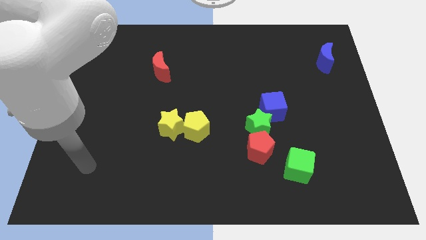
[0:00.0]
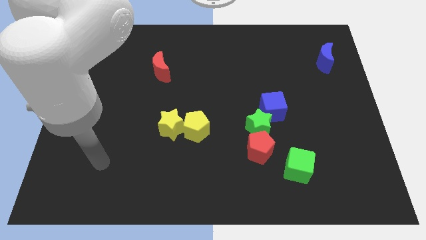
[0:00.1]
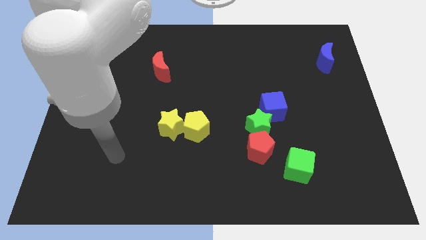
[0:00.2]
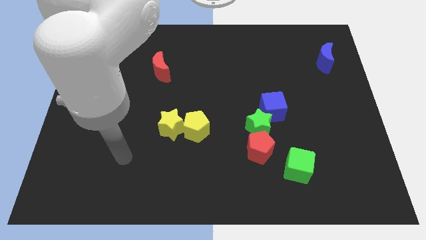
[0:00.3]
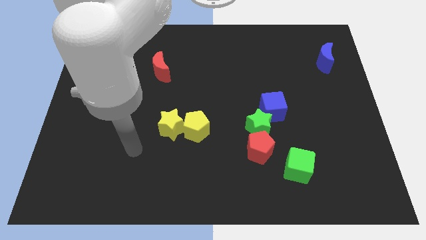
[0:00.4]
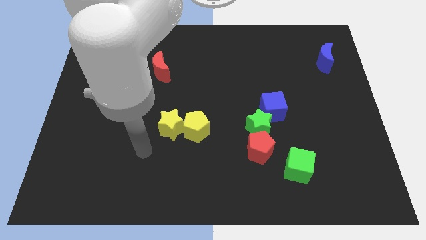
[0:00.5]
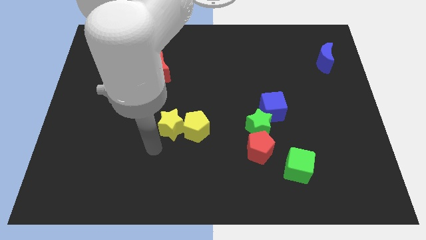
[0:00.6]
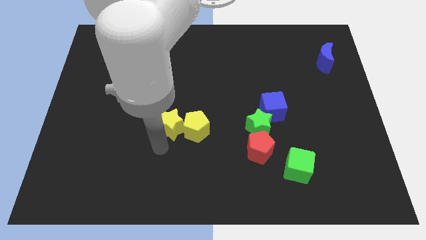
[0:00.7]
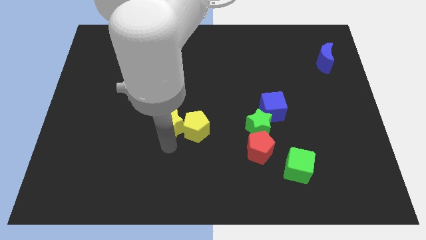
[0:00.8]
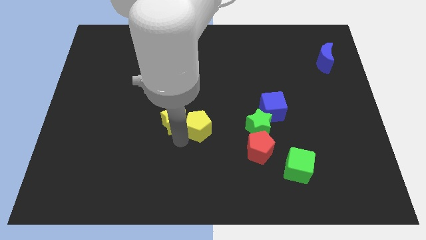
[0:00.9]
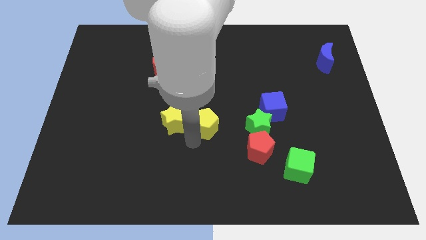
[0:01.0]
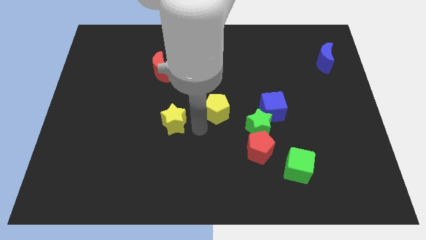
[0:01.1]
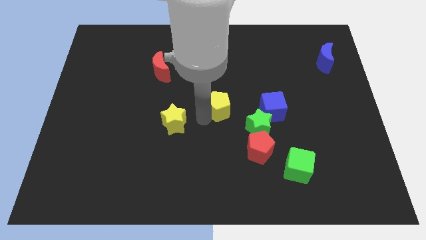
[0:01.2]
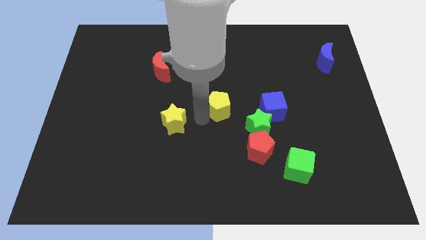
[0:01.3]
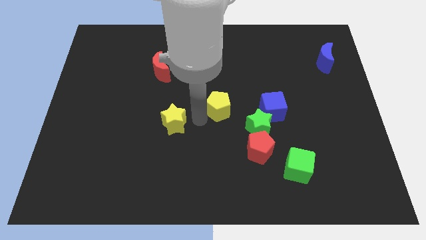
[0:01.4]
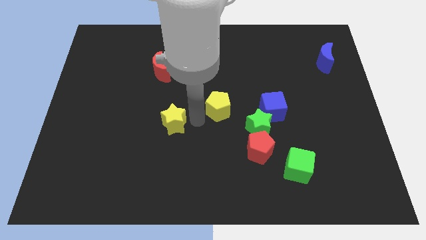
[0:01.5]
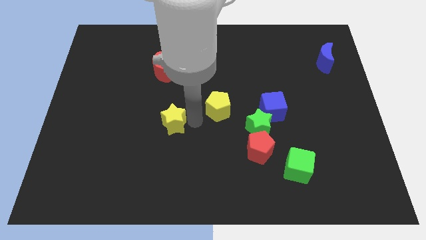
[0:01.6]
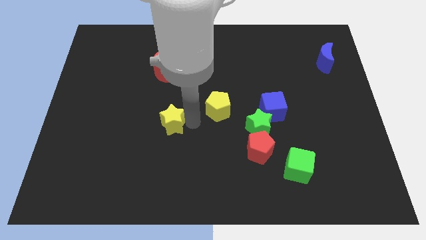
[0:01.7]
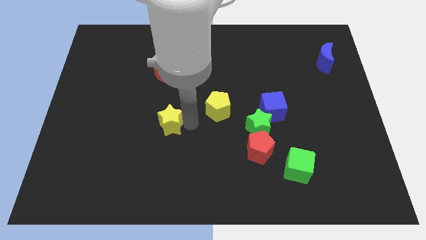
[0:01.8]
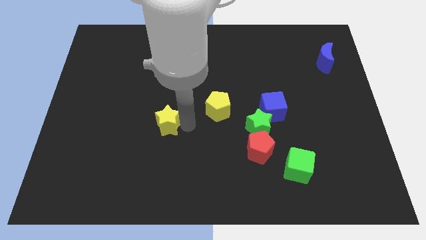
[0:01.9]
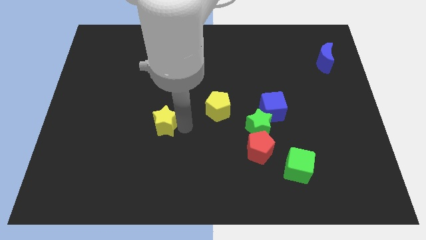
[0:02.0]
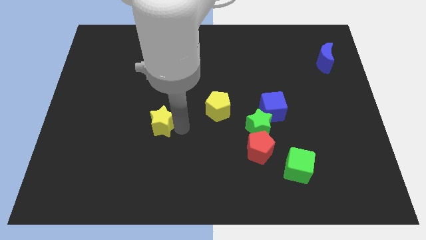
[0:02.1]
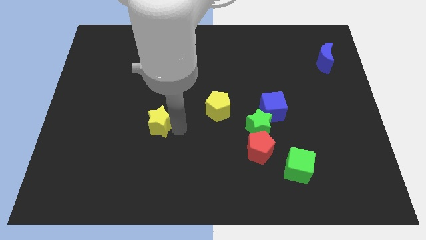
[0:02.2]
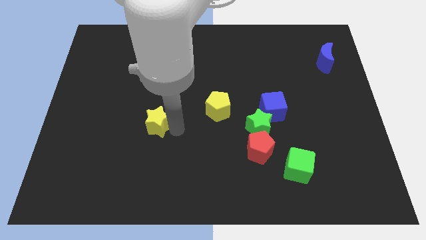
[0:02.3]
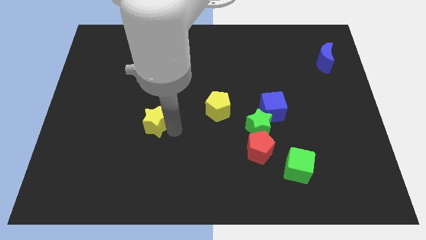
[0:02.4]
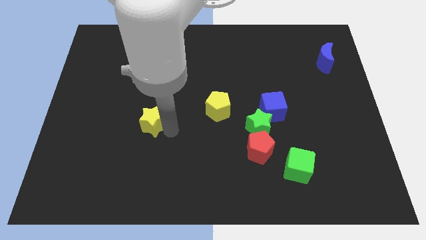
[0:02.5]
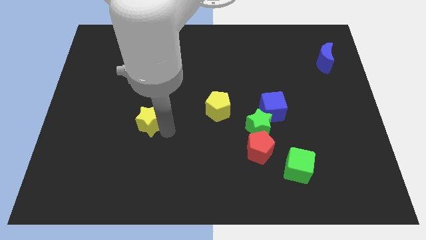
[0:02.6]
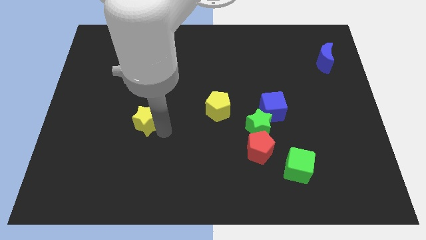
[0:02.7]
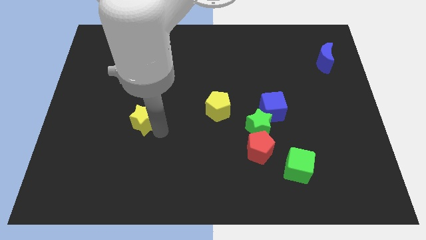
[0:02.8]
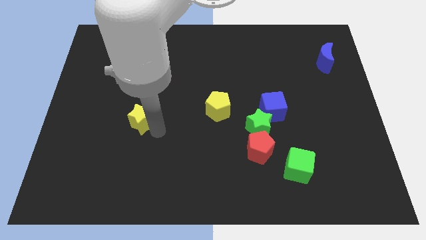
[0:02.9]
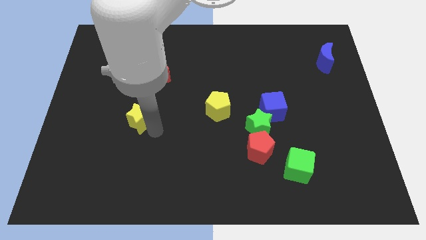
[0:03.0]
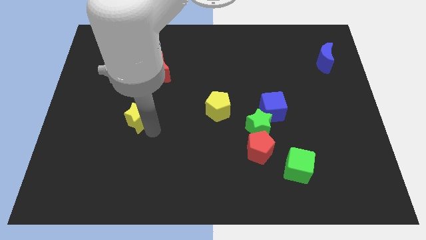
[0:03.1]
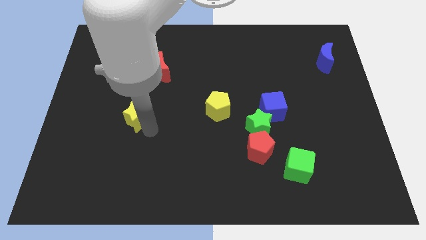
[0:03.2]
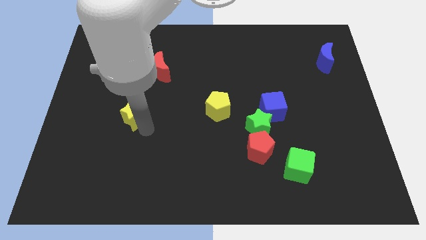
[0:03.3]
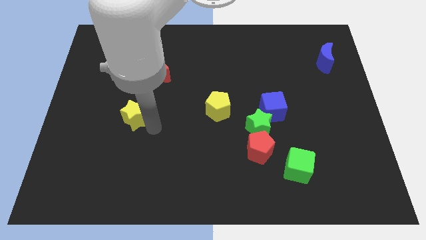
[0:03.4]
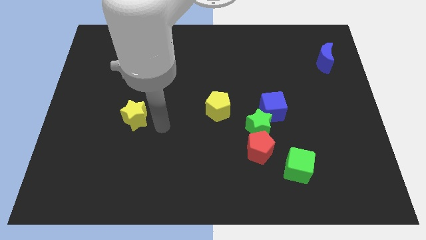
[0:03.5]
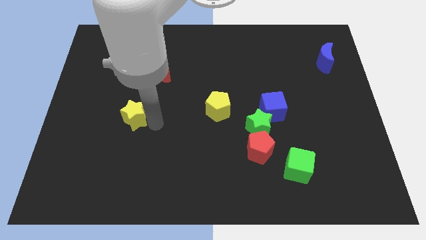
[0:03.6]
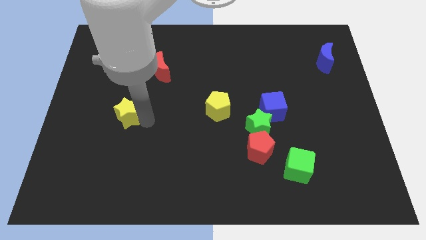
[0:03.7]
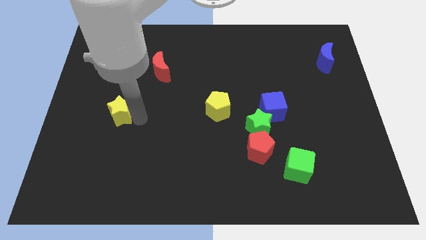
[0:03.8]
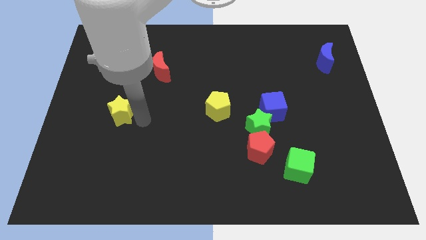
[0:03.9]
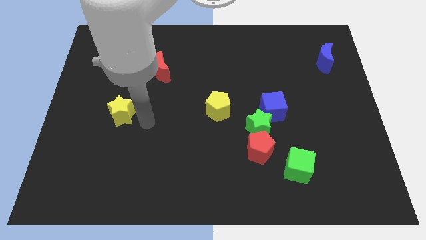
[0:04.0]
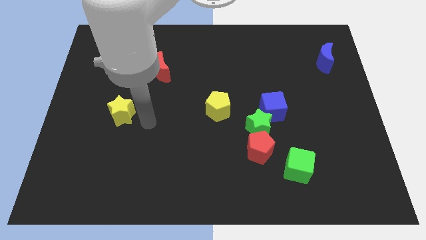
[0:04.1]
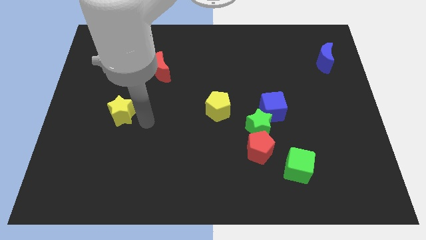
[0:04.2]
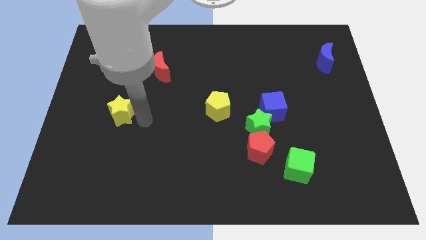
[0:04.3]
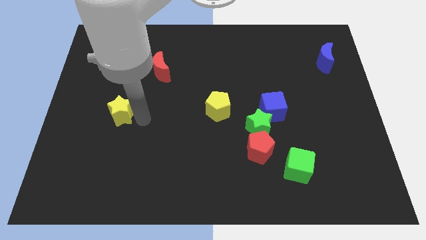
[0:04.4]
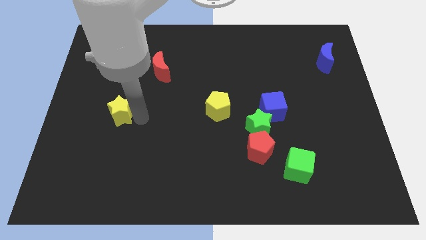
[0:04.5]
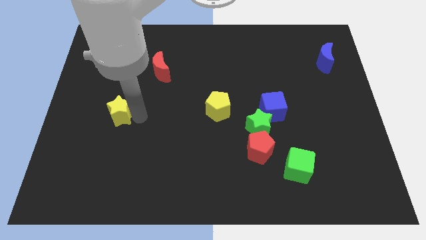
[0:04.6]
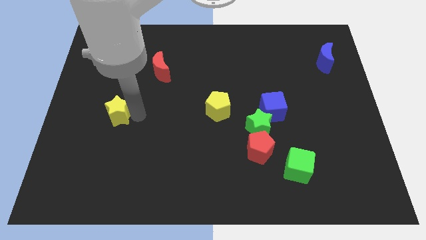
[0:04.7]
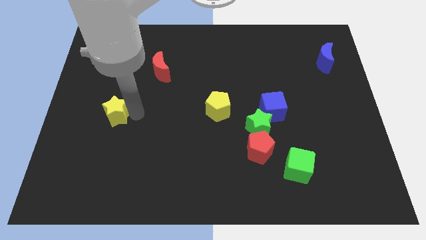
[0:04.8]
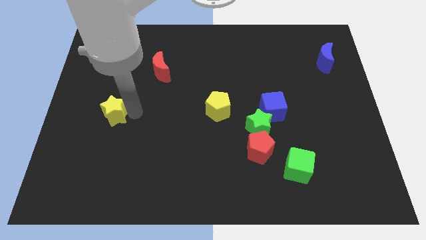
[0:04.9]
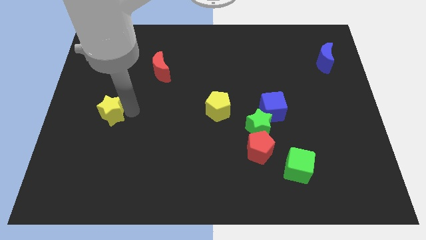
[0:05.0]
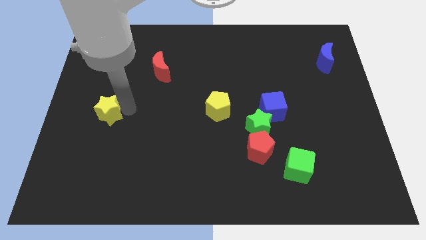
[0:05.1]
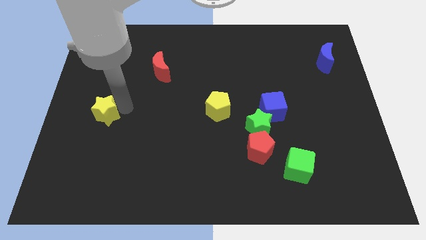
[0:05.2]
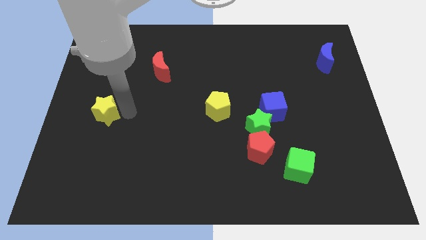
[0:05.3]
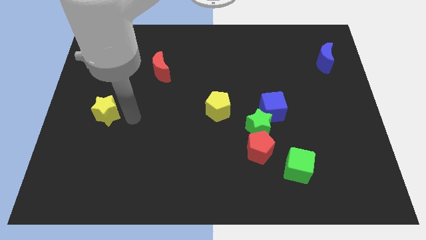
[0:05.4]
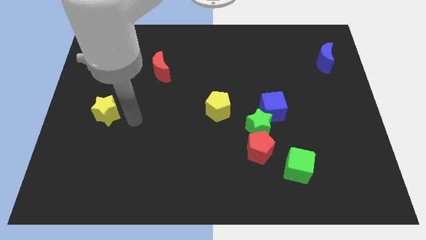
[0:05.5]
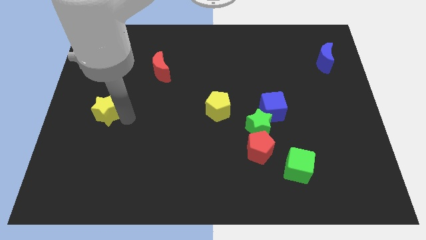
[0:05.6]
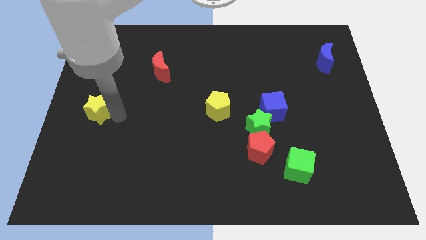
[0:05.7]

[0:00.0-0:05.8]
move the yellow star to the left side of the board
